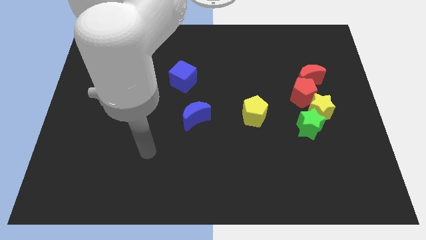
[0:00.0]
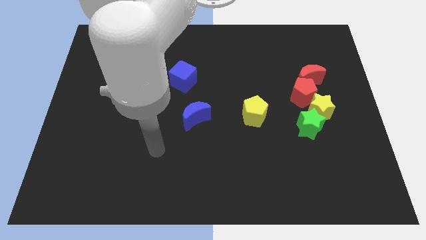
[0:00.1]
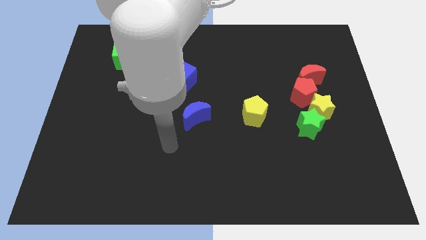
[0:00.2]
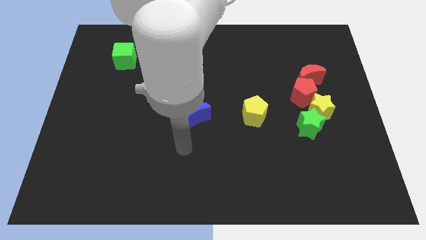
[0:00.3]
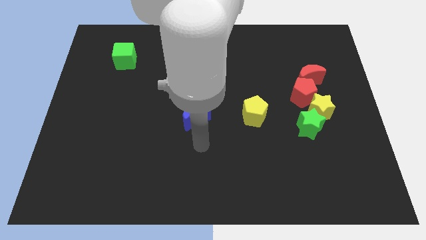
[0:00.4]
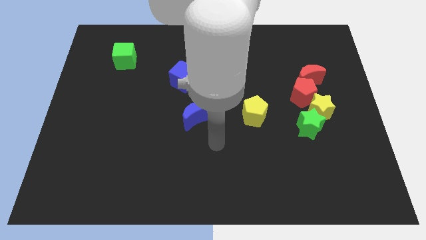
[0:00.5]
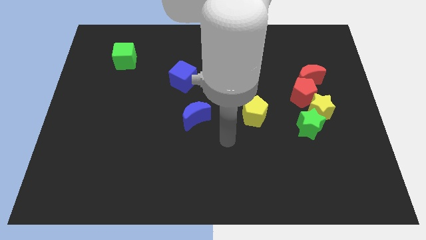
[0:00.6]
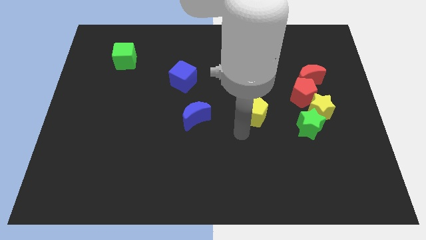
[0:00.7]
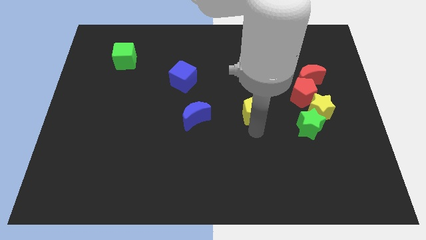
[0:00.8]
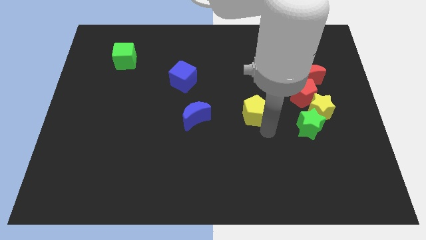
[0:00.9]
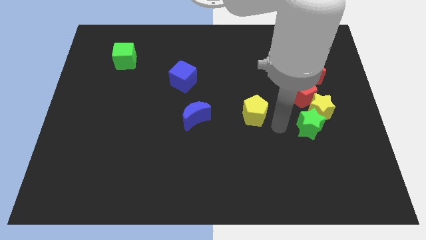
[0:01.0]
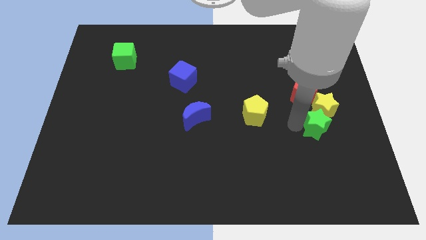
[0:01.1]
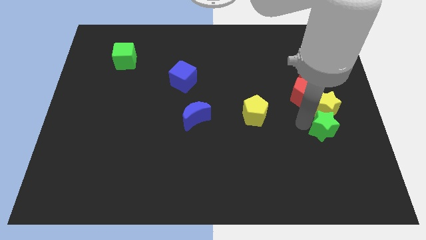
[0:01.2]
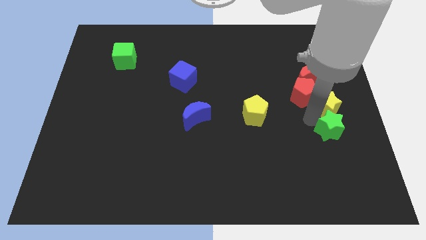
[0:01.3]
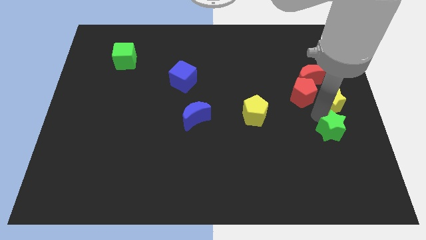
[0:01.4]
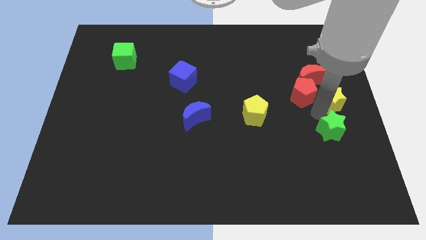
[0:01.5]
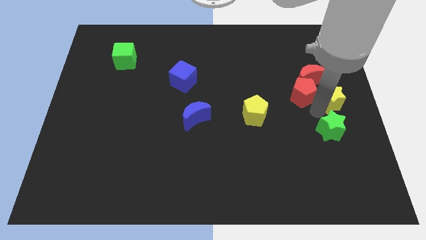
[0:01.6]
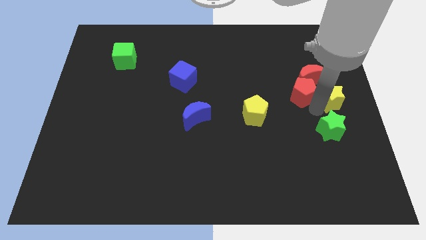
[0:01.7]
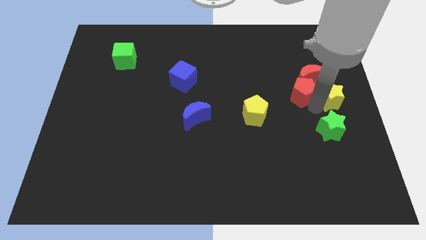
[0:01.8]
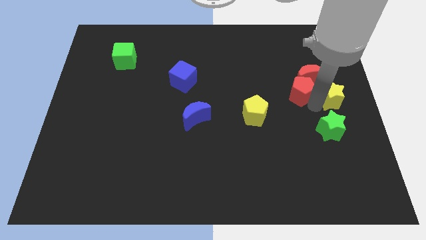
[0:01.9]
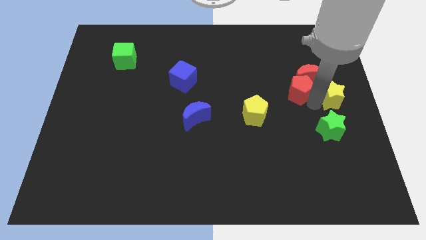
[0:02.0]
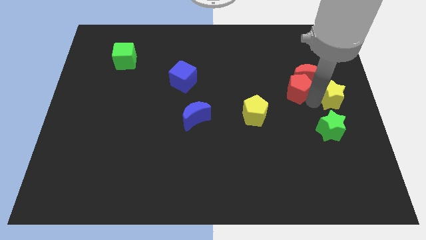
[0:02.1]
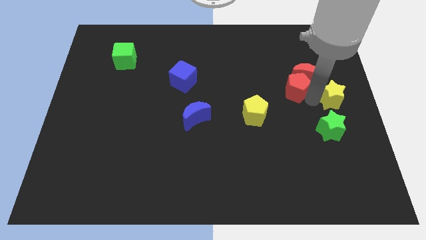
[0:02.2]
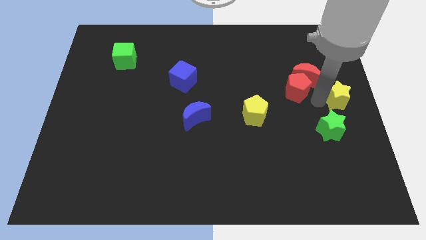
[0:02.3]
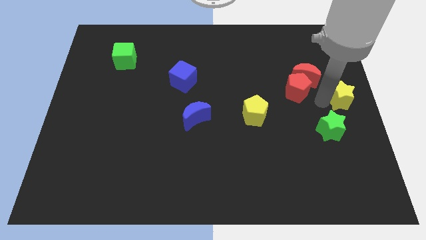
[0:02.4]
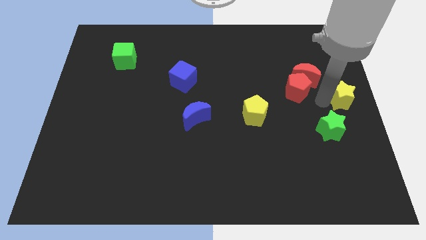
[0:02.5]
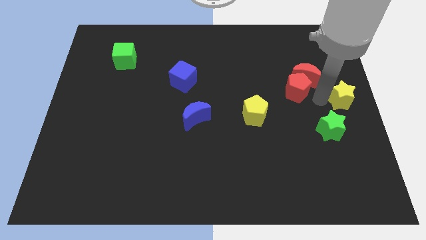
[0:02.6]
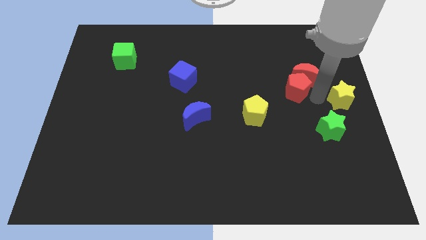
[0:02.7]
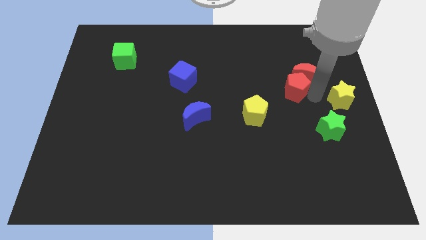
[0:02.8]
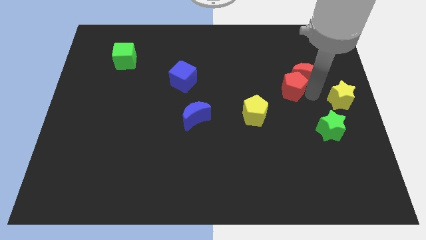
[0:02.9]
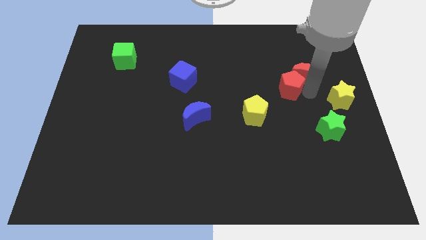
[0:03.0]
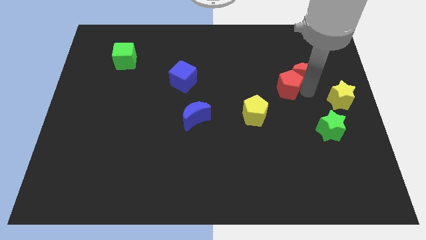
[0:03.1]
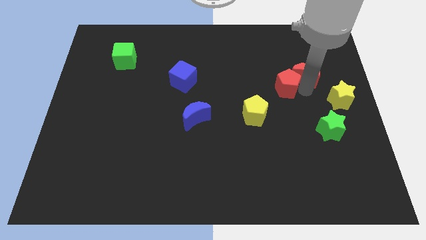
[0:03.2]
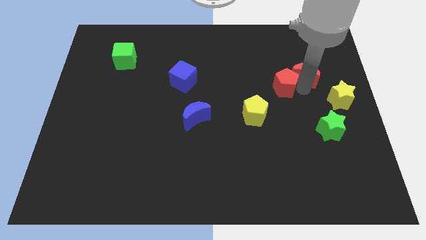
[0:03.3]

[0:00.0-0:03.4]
move the red pentagon away from the group

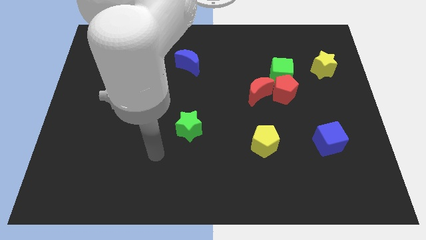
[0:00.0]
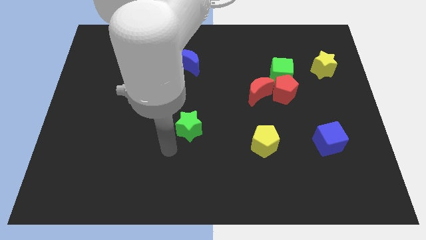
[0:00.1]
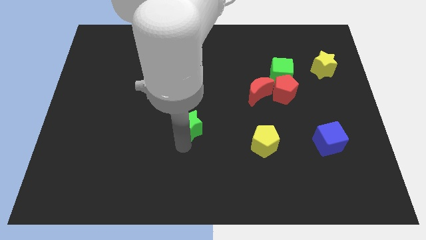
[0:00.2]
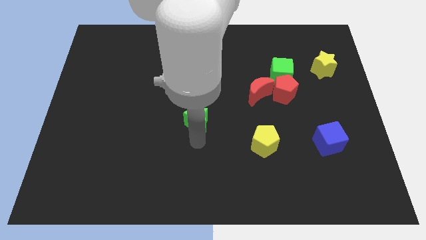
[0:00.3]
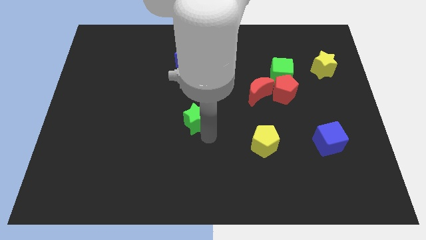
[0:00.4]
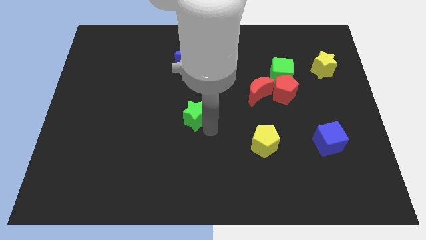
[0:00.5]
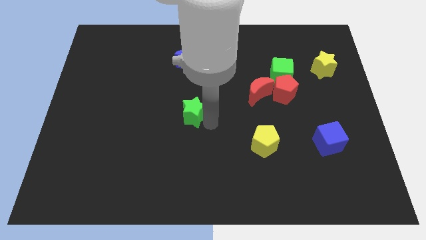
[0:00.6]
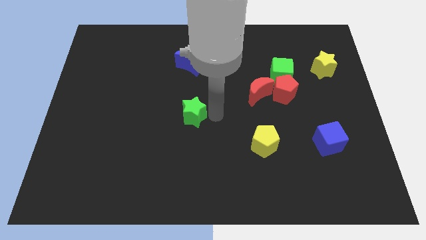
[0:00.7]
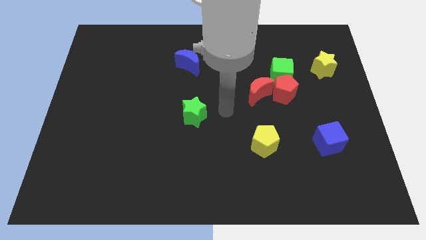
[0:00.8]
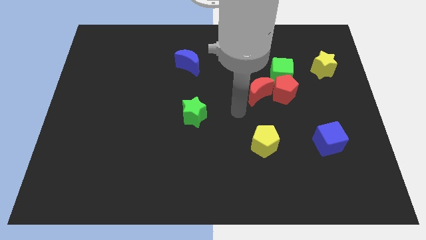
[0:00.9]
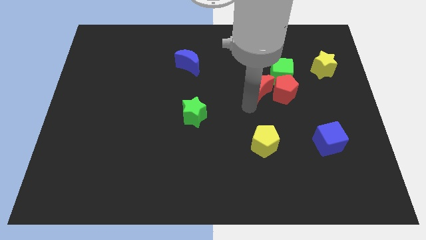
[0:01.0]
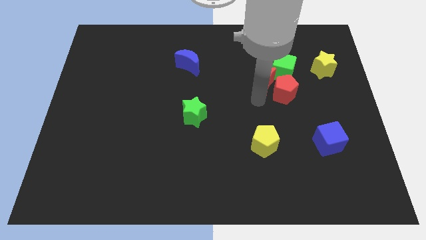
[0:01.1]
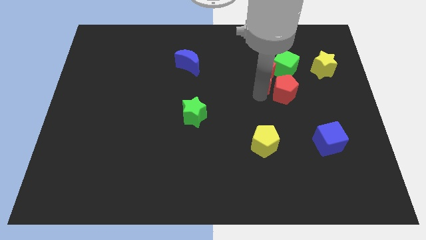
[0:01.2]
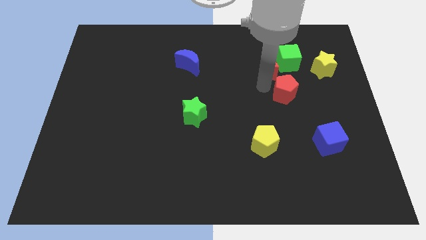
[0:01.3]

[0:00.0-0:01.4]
pull the red pentagon apart from the green cube and red moon

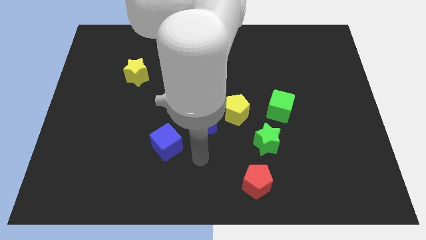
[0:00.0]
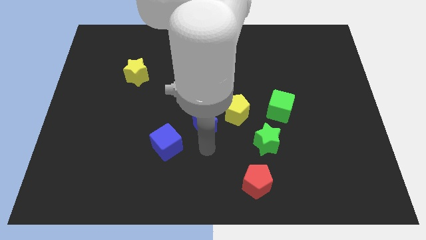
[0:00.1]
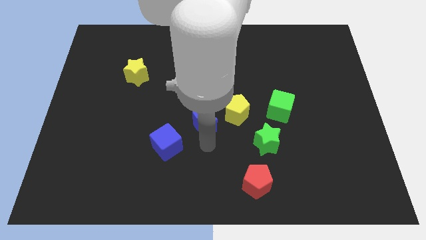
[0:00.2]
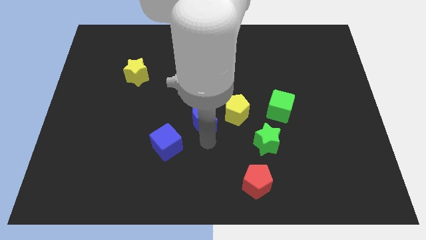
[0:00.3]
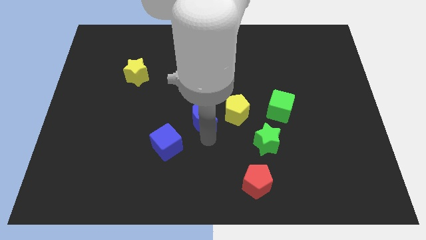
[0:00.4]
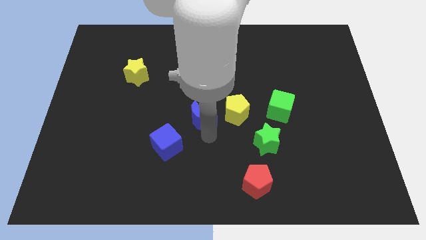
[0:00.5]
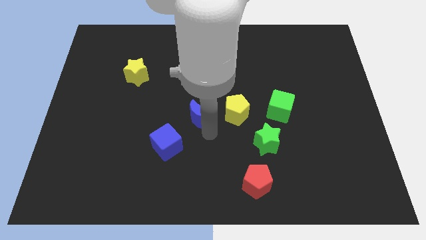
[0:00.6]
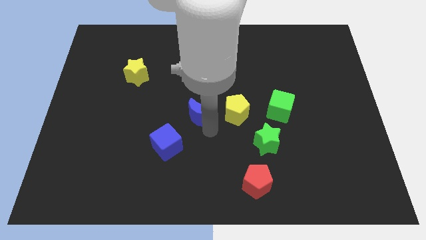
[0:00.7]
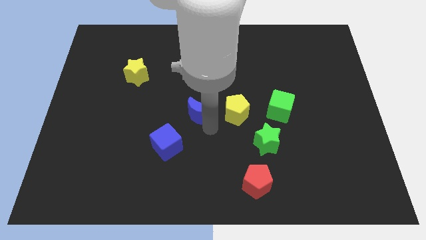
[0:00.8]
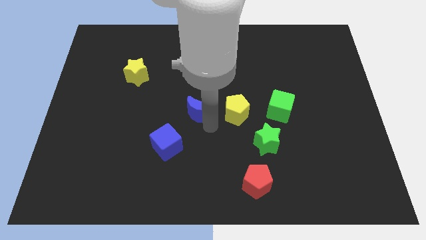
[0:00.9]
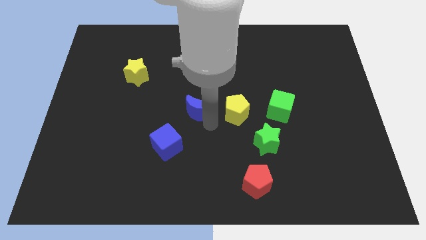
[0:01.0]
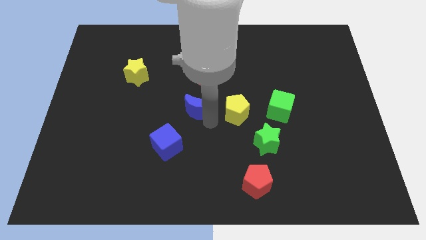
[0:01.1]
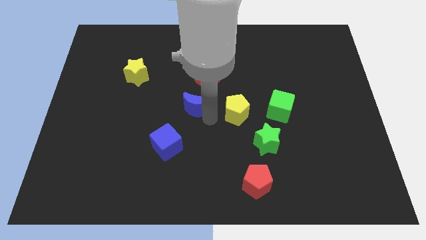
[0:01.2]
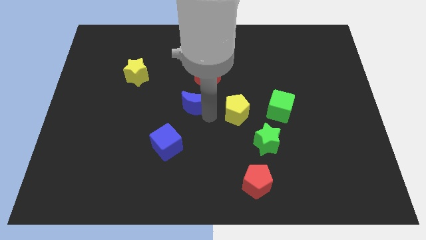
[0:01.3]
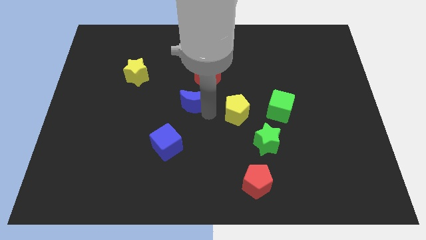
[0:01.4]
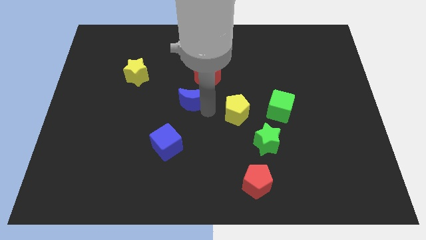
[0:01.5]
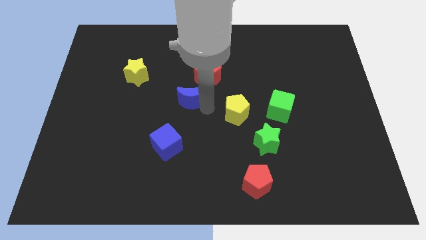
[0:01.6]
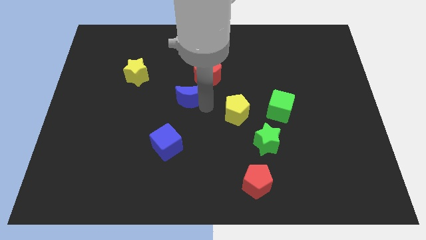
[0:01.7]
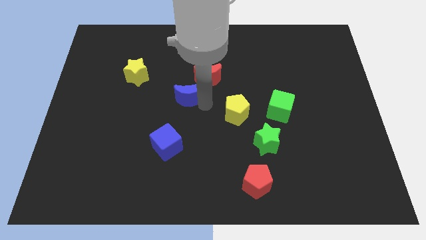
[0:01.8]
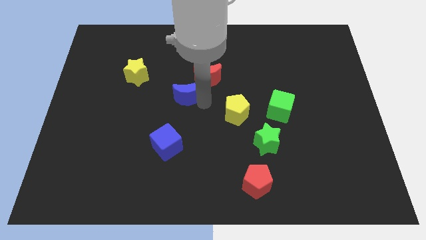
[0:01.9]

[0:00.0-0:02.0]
pull the blue moon apart from the yellow pentagon and blue cube

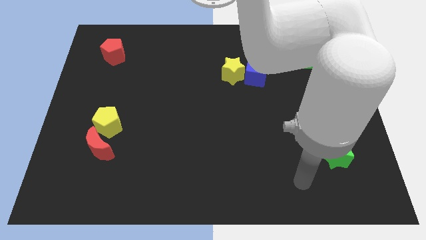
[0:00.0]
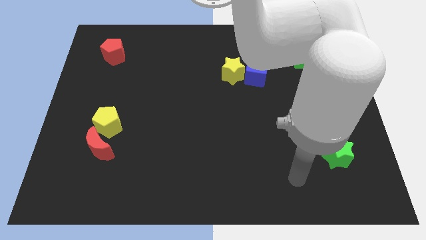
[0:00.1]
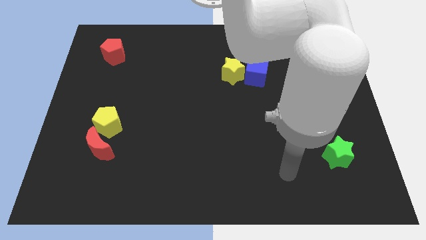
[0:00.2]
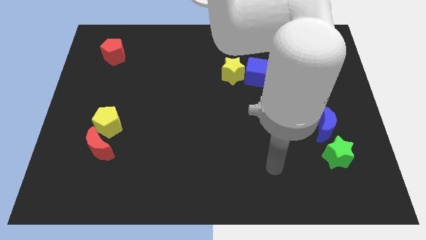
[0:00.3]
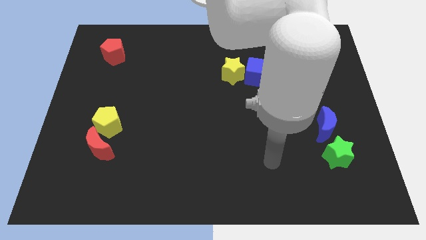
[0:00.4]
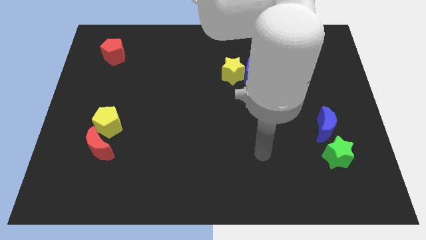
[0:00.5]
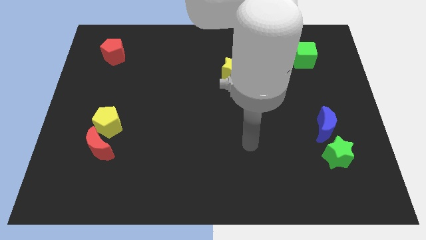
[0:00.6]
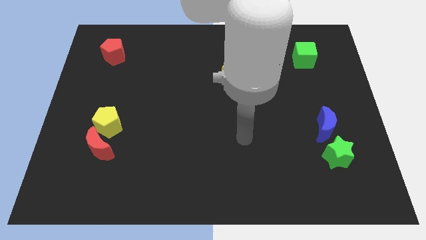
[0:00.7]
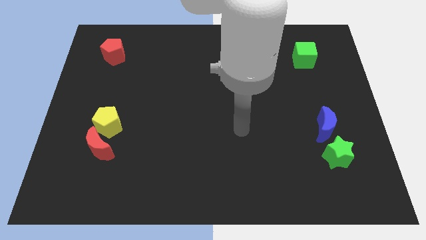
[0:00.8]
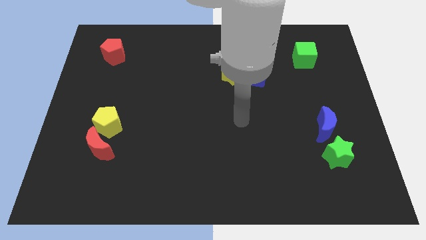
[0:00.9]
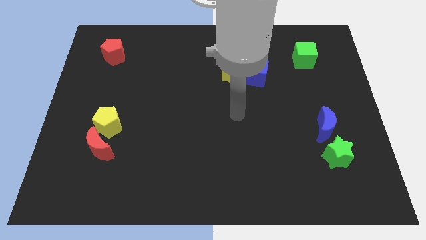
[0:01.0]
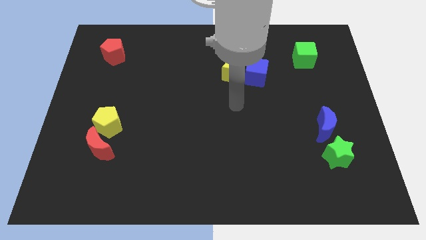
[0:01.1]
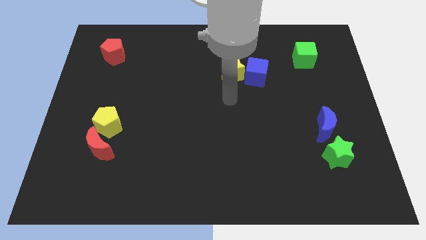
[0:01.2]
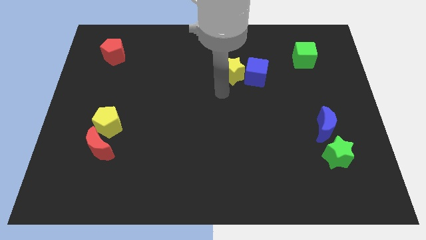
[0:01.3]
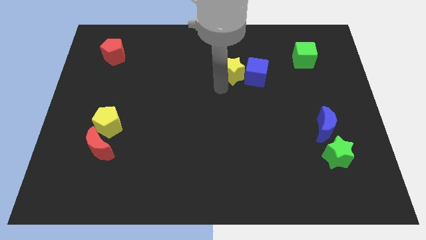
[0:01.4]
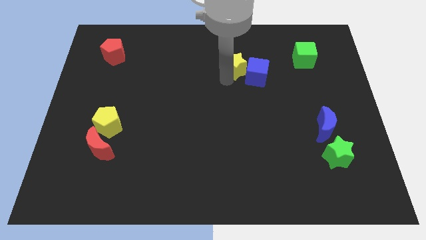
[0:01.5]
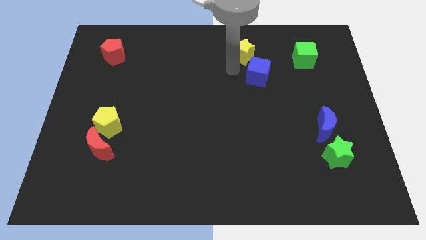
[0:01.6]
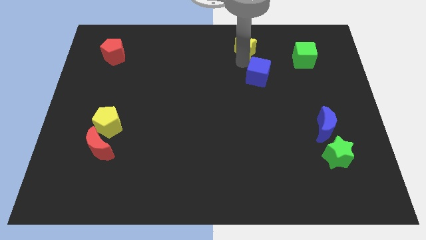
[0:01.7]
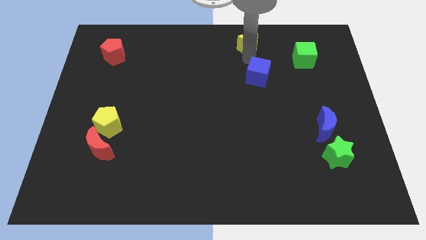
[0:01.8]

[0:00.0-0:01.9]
separate the blue cube from the yellow star

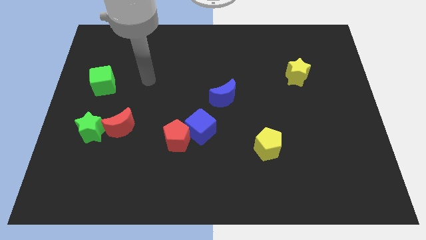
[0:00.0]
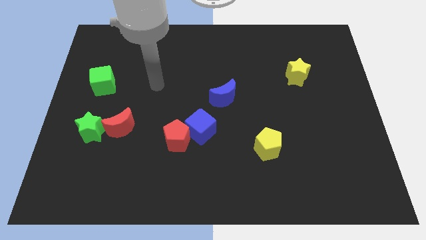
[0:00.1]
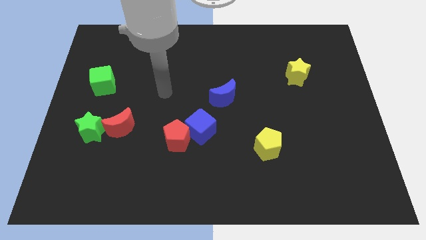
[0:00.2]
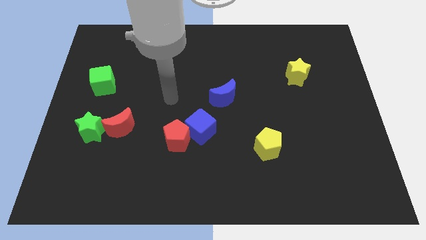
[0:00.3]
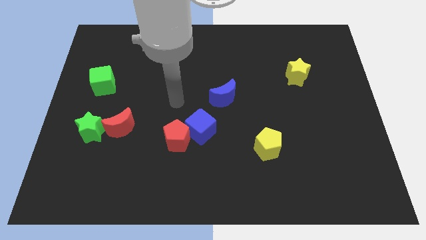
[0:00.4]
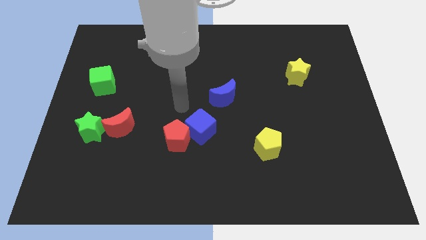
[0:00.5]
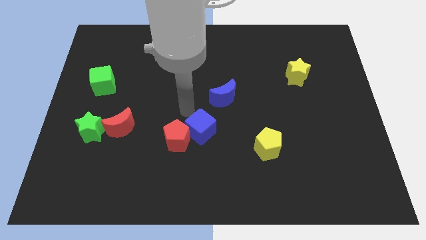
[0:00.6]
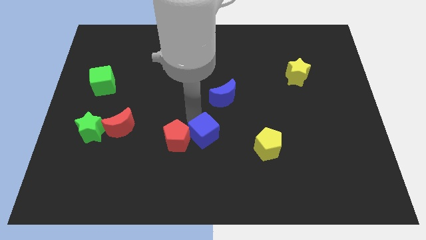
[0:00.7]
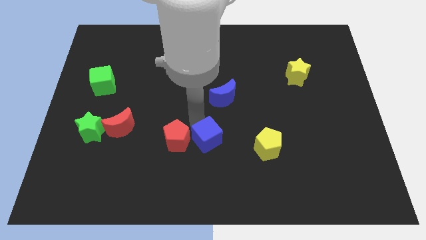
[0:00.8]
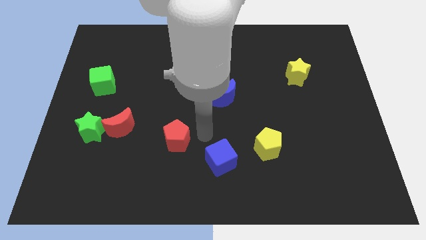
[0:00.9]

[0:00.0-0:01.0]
move the red pentagon away from the blue cube
